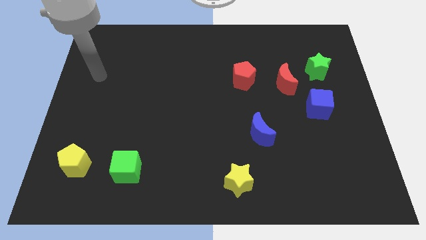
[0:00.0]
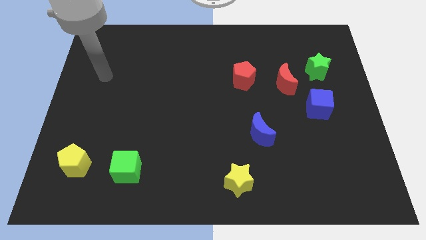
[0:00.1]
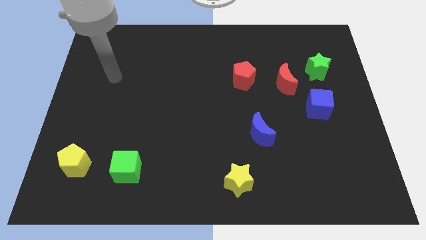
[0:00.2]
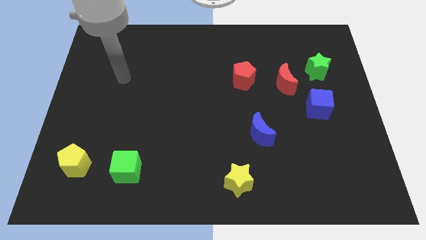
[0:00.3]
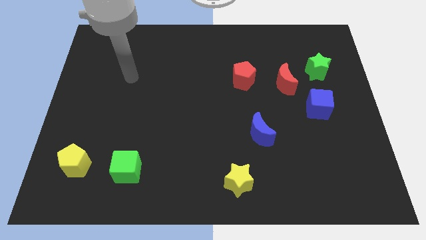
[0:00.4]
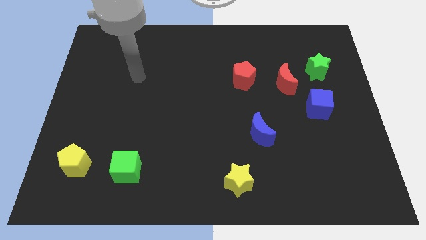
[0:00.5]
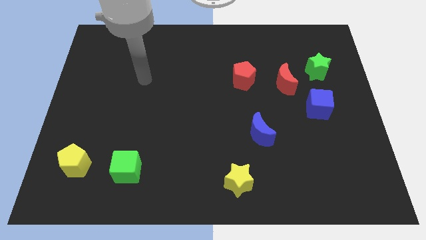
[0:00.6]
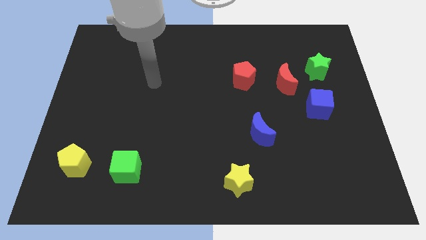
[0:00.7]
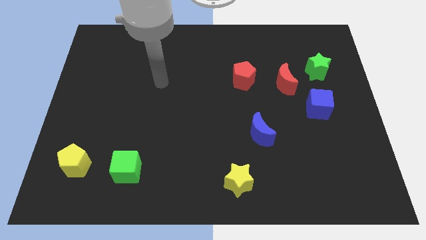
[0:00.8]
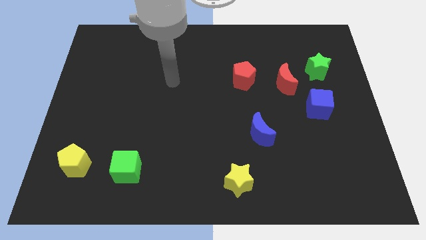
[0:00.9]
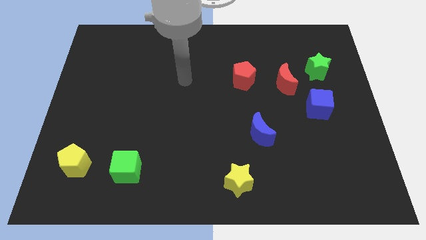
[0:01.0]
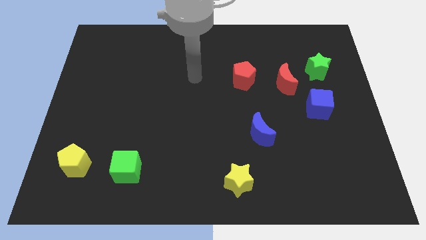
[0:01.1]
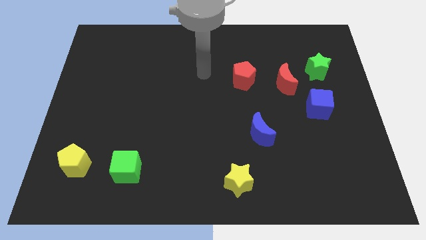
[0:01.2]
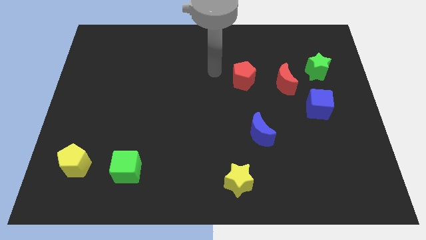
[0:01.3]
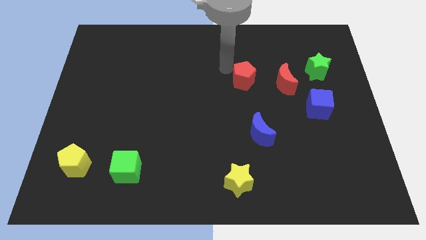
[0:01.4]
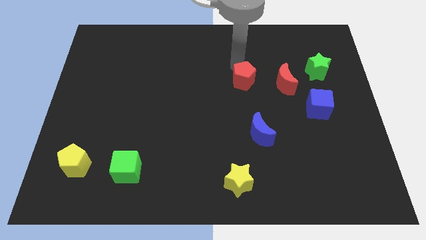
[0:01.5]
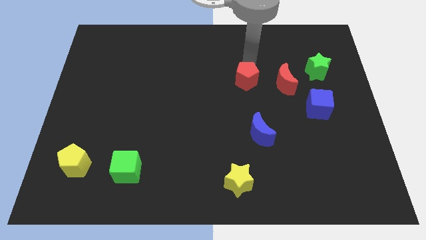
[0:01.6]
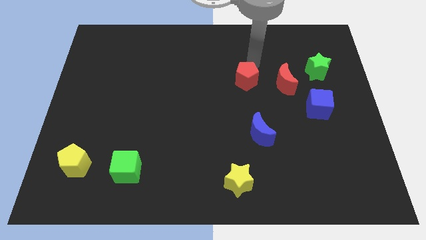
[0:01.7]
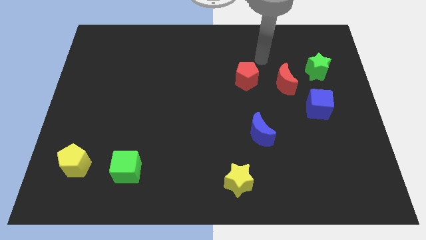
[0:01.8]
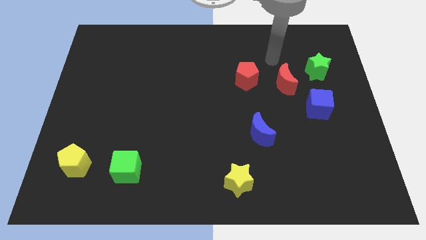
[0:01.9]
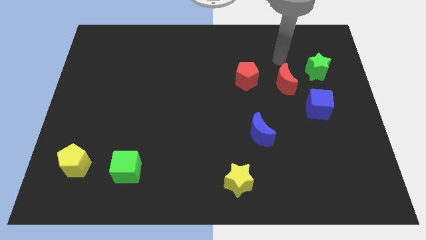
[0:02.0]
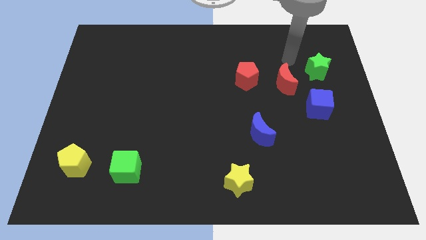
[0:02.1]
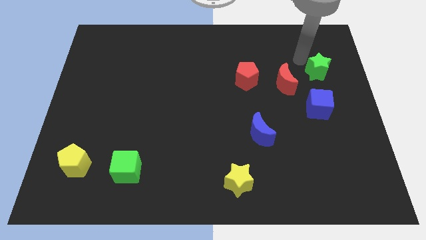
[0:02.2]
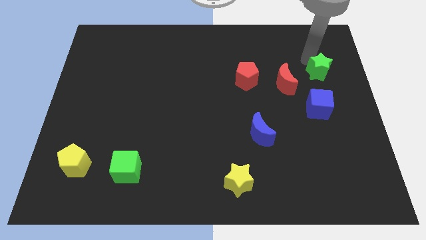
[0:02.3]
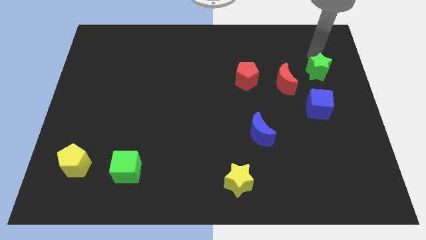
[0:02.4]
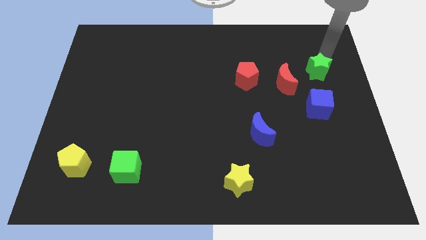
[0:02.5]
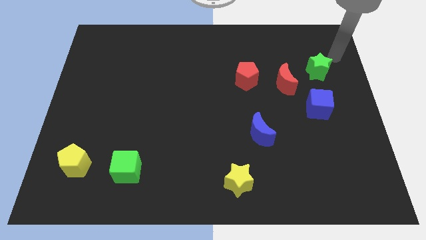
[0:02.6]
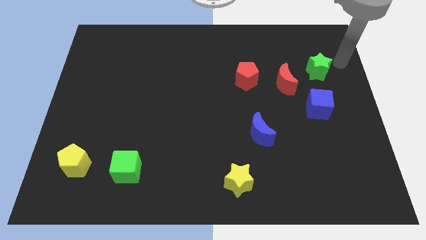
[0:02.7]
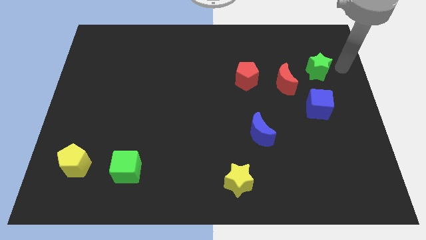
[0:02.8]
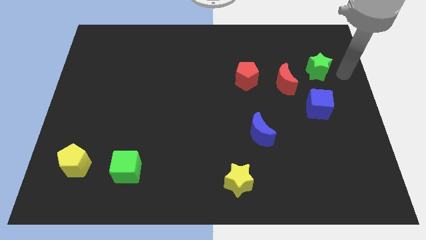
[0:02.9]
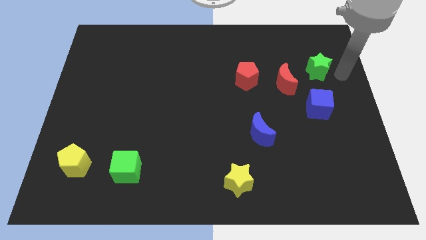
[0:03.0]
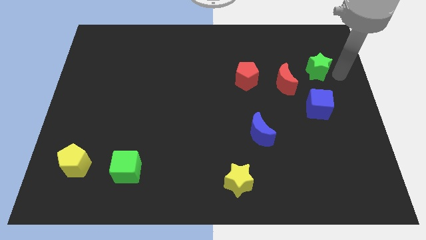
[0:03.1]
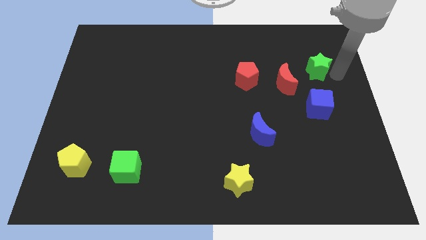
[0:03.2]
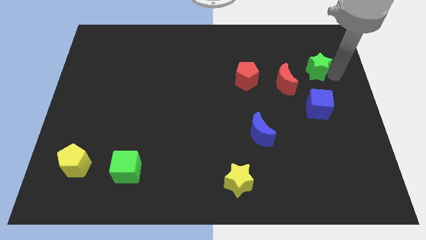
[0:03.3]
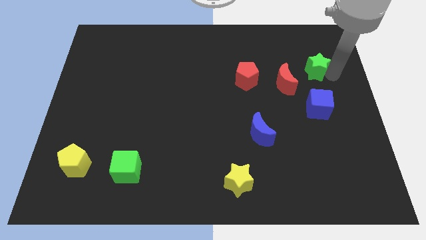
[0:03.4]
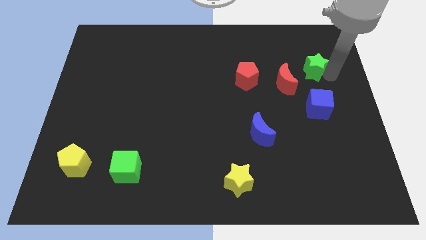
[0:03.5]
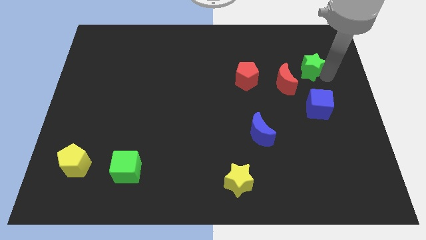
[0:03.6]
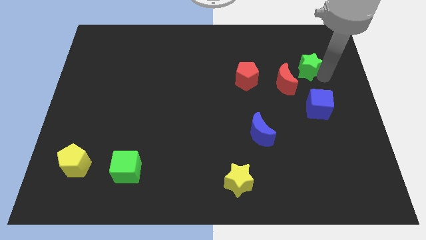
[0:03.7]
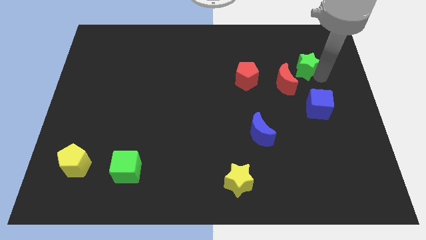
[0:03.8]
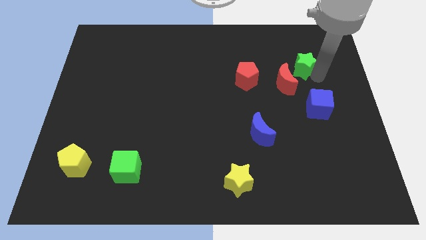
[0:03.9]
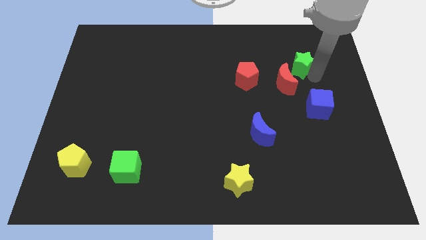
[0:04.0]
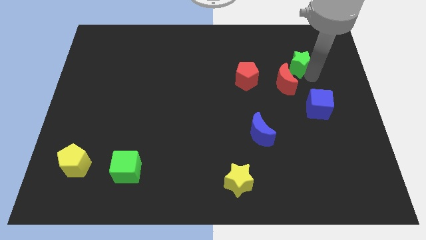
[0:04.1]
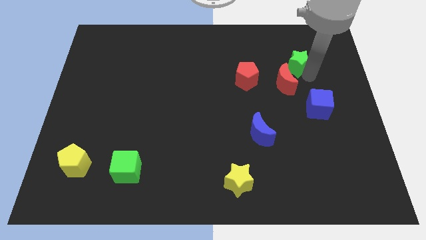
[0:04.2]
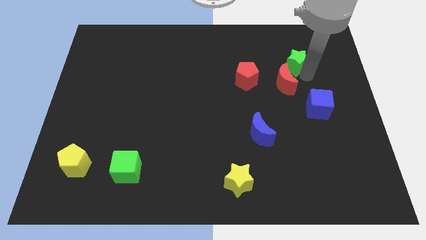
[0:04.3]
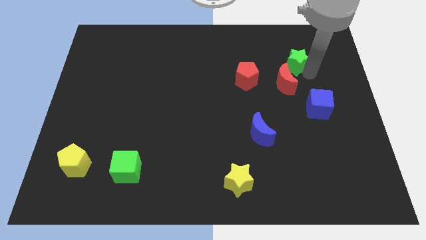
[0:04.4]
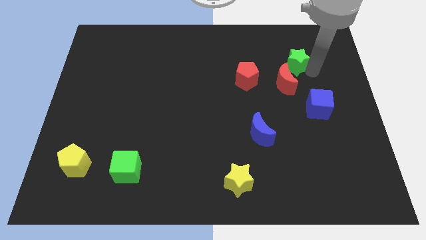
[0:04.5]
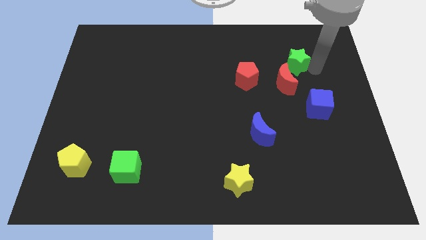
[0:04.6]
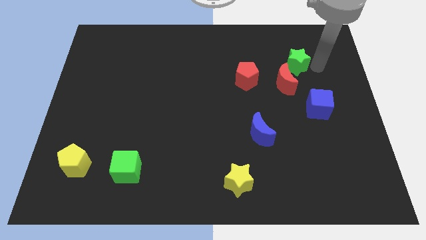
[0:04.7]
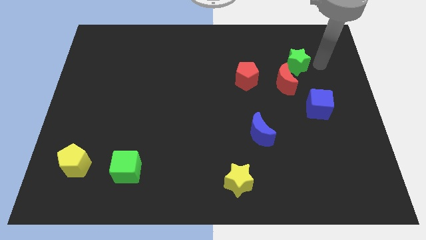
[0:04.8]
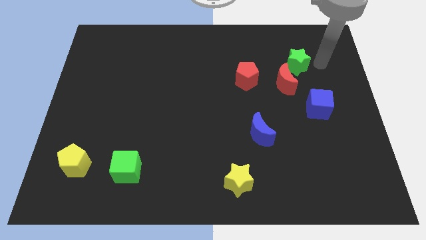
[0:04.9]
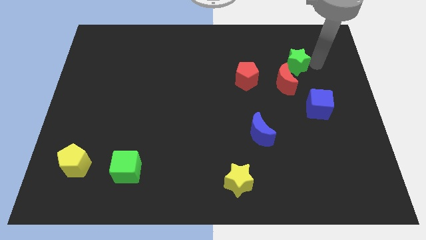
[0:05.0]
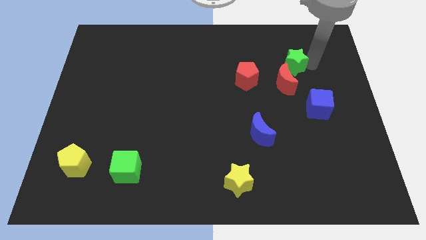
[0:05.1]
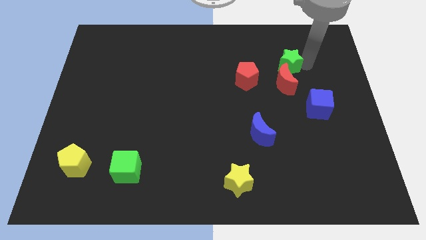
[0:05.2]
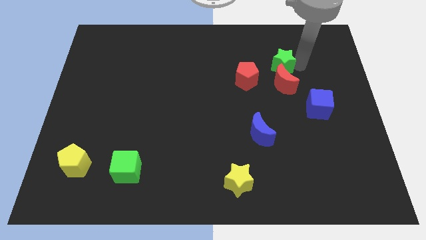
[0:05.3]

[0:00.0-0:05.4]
push the green star to the top right side of the red pentagon

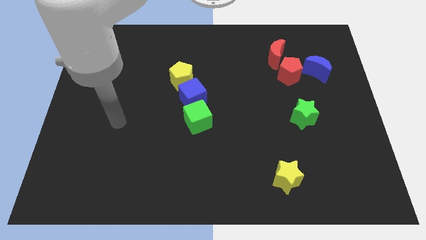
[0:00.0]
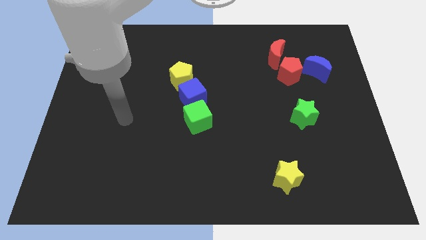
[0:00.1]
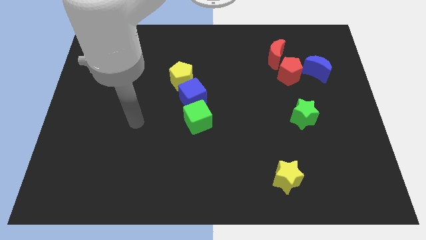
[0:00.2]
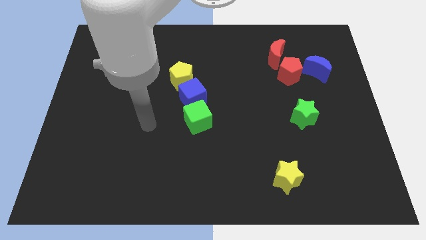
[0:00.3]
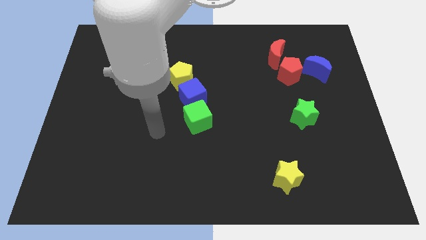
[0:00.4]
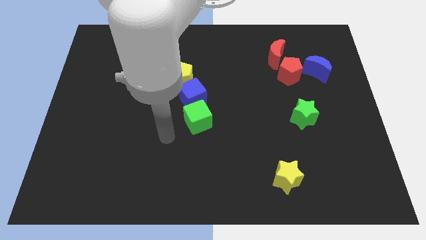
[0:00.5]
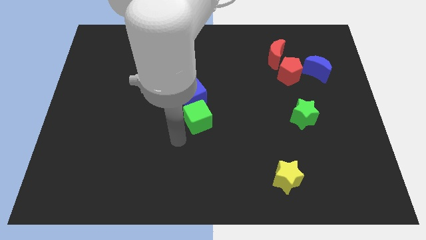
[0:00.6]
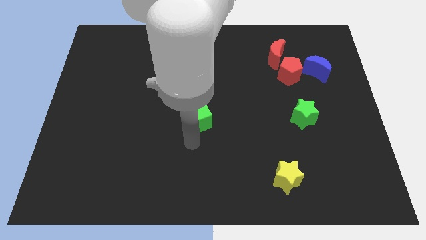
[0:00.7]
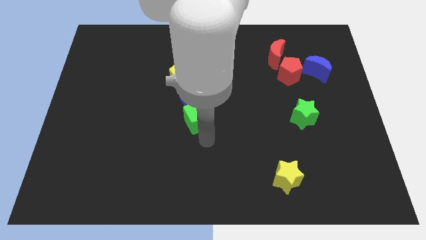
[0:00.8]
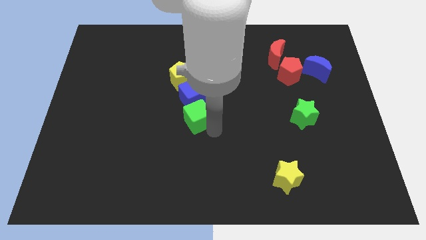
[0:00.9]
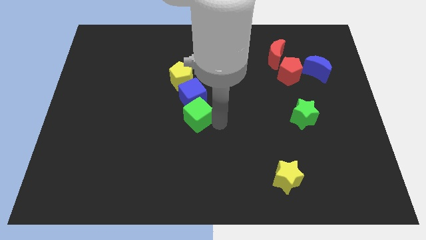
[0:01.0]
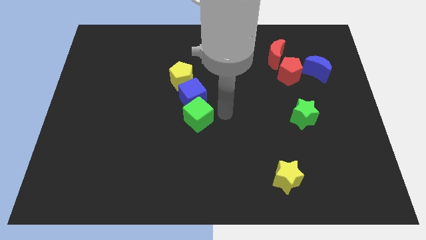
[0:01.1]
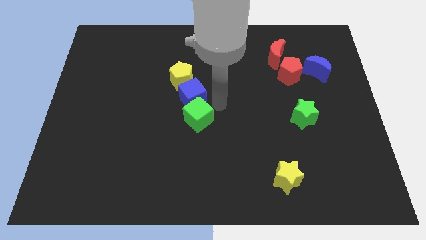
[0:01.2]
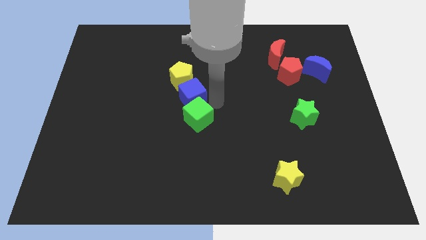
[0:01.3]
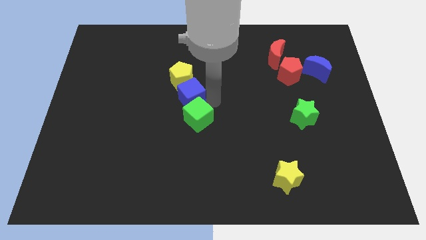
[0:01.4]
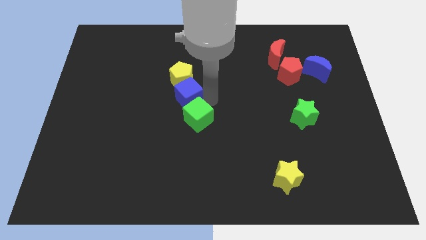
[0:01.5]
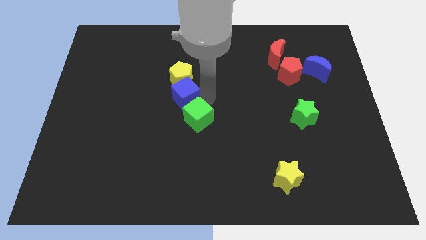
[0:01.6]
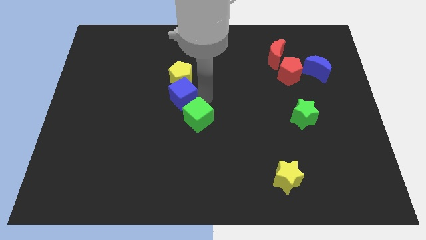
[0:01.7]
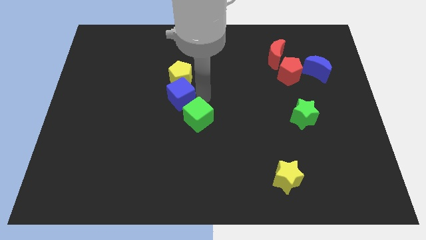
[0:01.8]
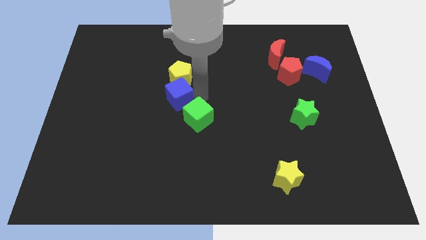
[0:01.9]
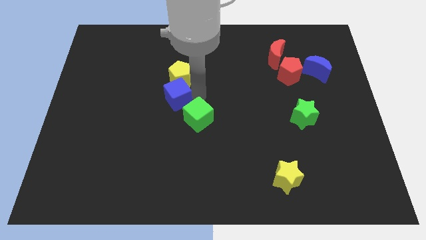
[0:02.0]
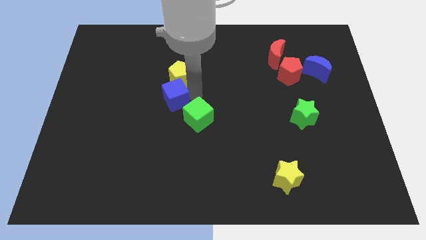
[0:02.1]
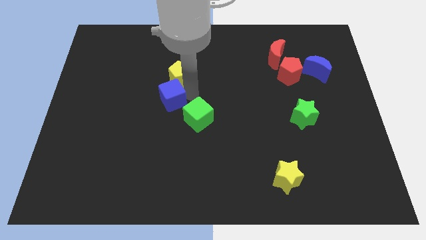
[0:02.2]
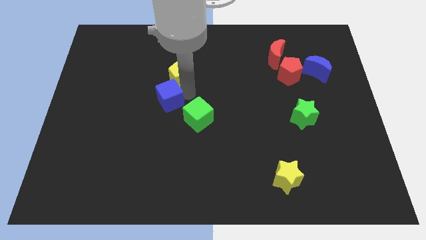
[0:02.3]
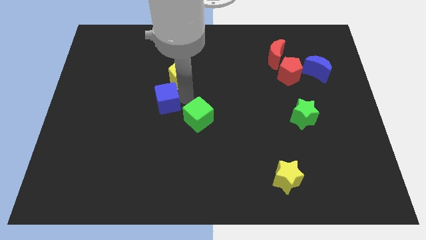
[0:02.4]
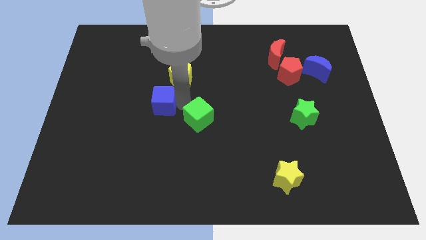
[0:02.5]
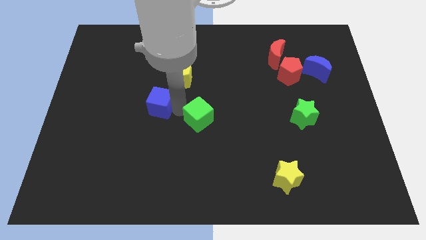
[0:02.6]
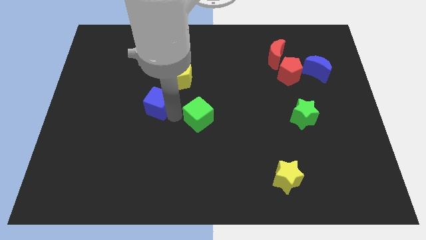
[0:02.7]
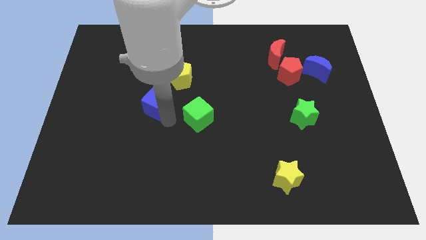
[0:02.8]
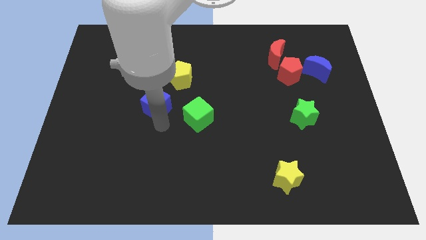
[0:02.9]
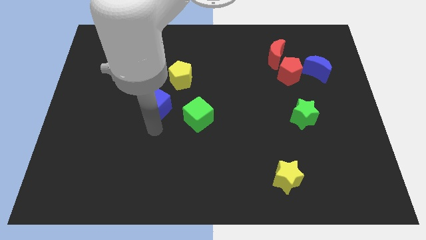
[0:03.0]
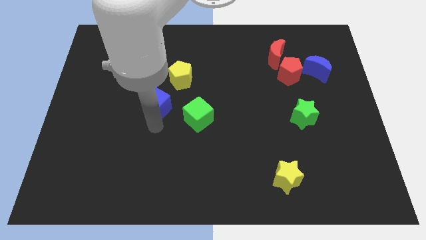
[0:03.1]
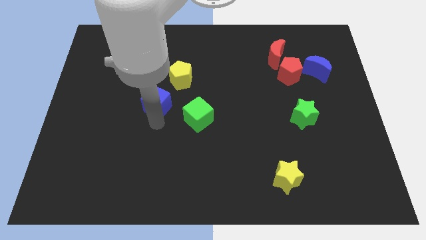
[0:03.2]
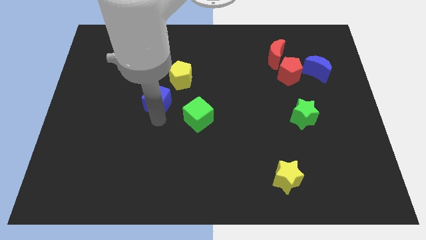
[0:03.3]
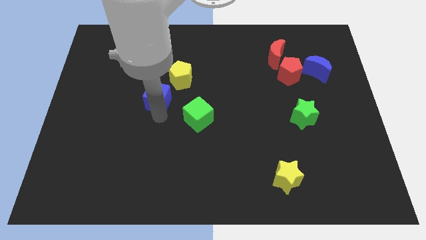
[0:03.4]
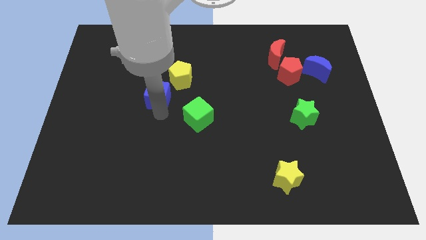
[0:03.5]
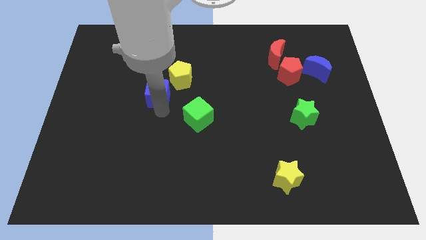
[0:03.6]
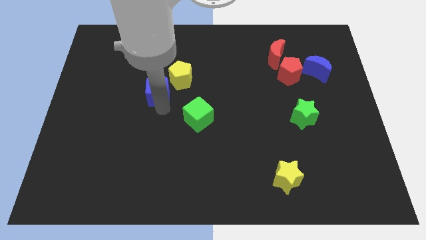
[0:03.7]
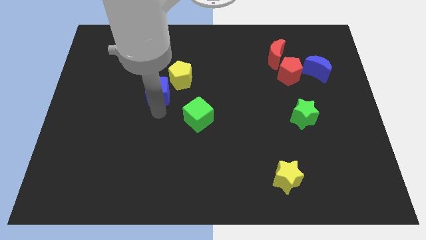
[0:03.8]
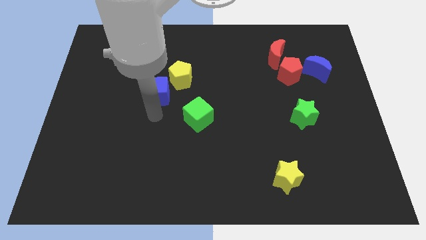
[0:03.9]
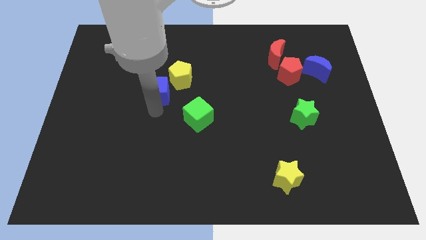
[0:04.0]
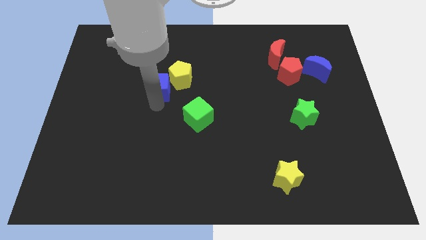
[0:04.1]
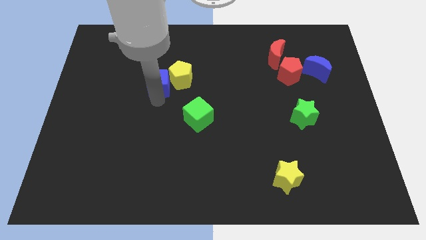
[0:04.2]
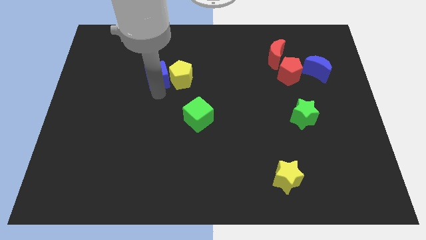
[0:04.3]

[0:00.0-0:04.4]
put the blue cube diagonally up and to the left of the yellow pentagon
